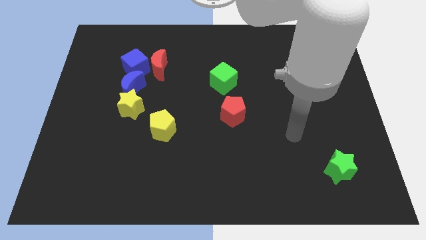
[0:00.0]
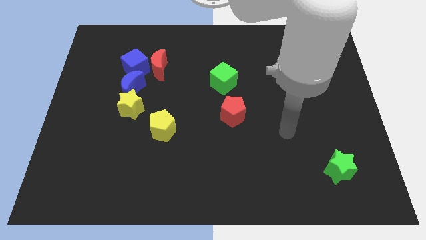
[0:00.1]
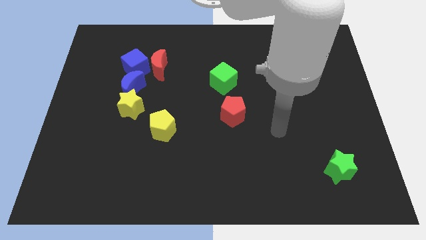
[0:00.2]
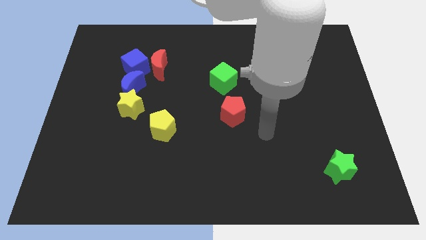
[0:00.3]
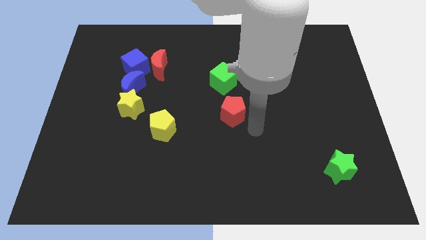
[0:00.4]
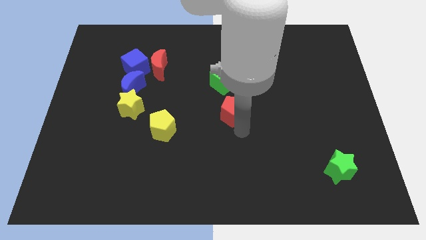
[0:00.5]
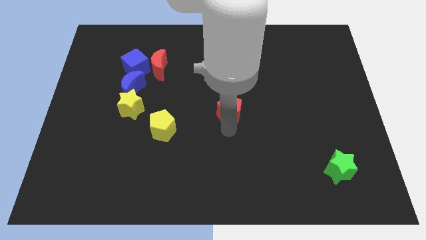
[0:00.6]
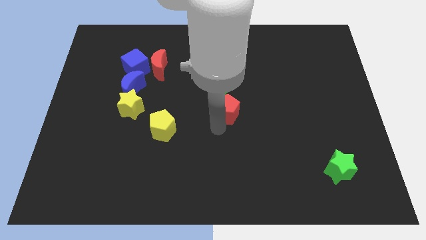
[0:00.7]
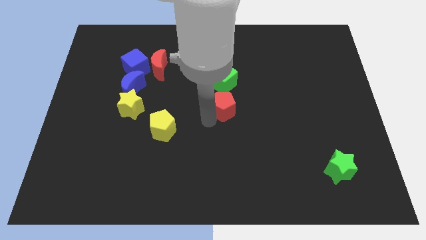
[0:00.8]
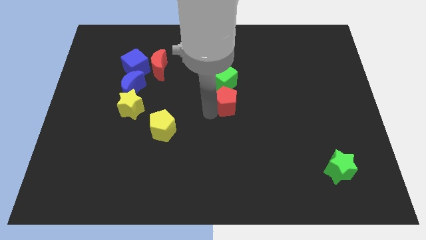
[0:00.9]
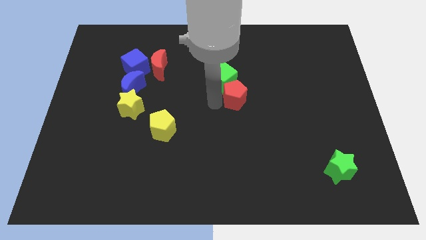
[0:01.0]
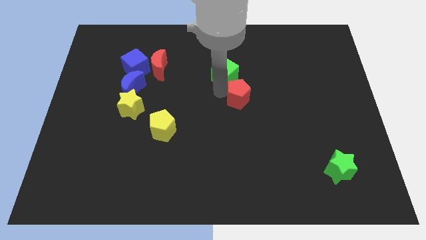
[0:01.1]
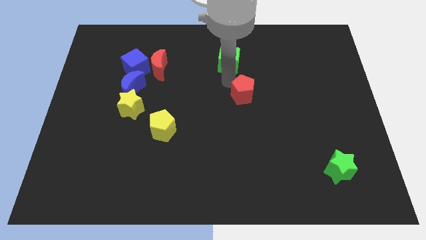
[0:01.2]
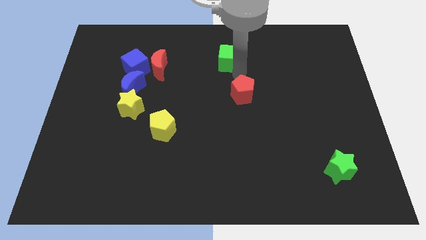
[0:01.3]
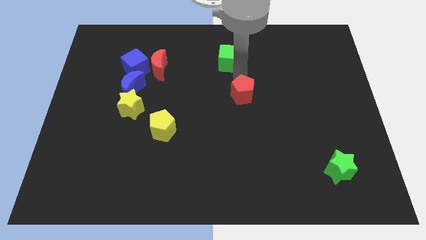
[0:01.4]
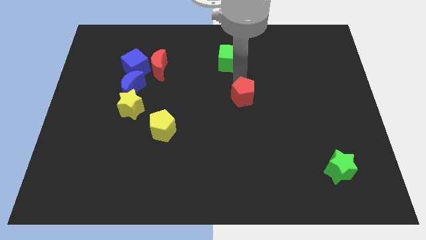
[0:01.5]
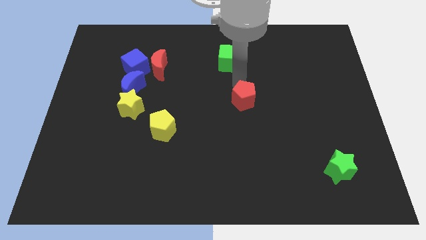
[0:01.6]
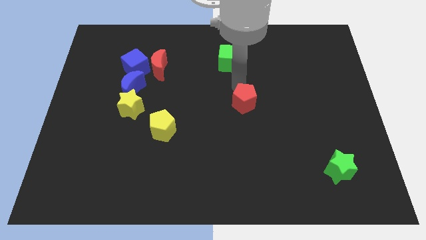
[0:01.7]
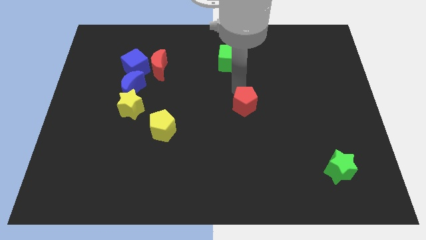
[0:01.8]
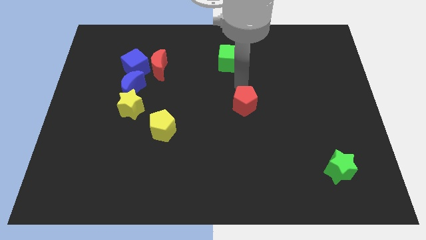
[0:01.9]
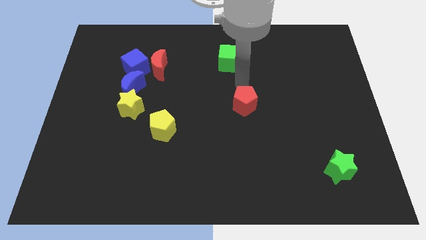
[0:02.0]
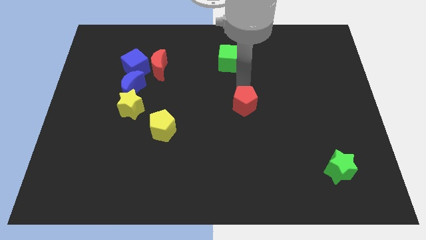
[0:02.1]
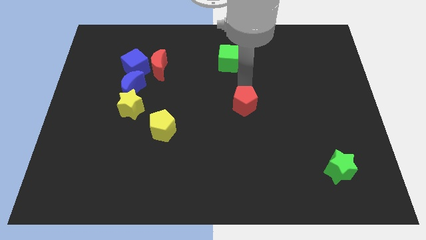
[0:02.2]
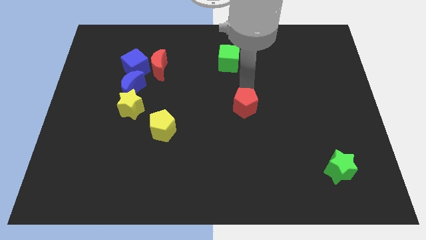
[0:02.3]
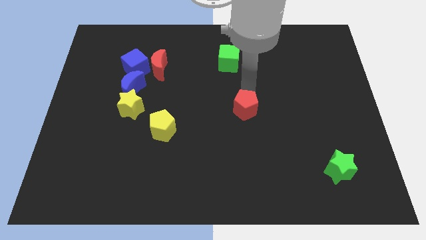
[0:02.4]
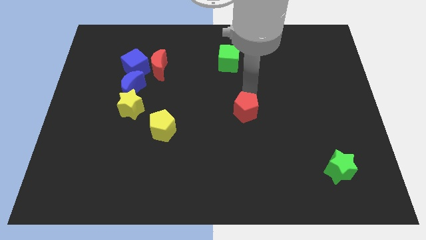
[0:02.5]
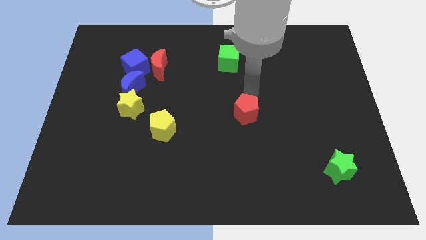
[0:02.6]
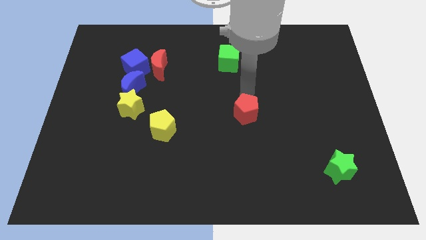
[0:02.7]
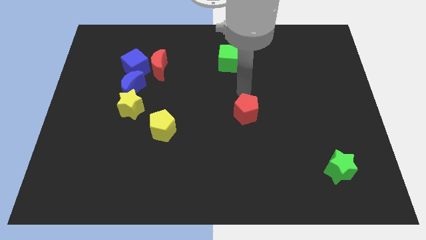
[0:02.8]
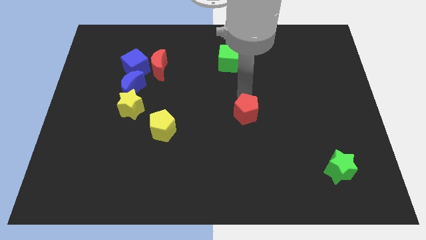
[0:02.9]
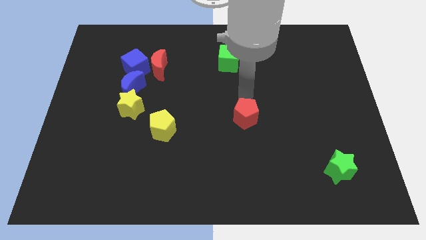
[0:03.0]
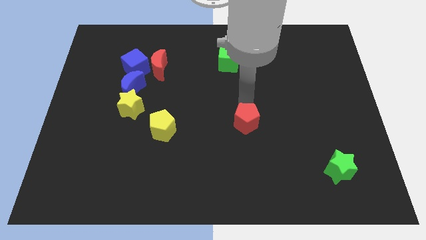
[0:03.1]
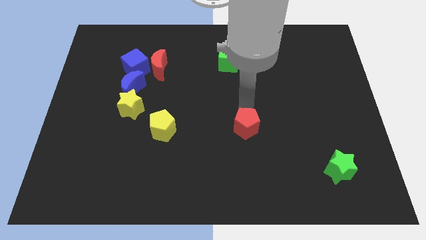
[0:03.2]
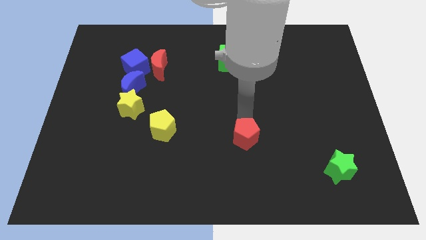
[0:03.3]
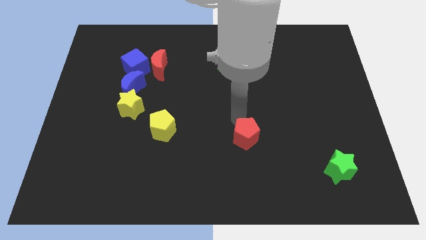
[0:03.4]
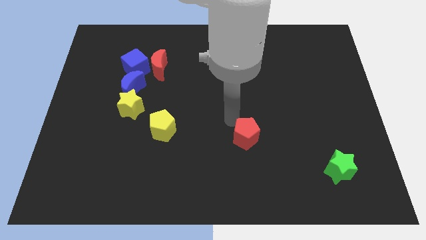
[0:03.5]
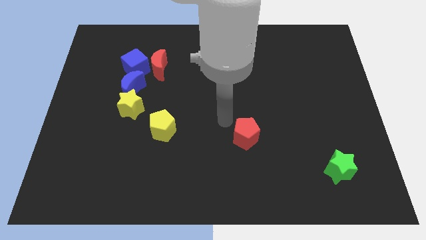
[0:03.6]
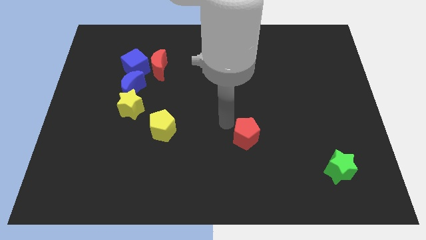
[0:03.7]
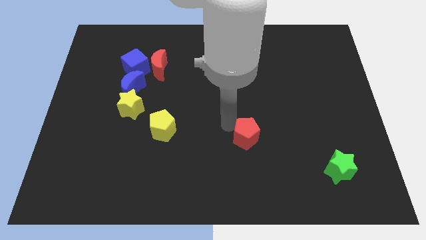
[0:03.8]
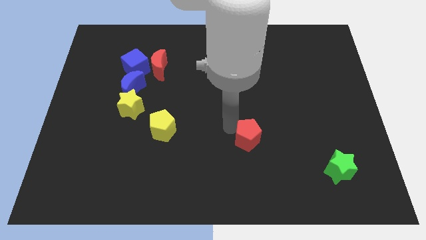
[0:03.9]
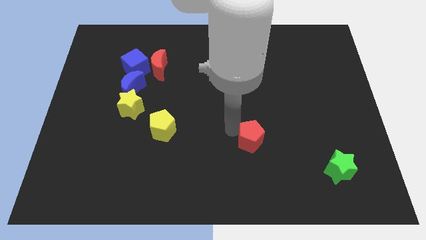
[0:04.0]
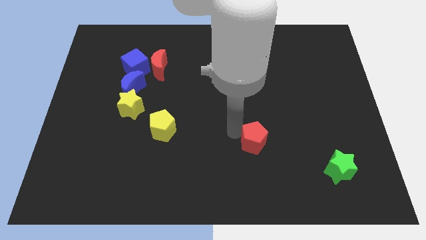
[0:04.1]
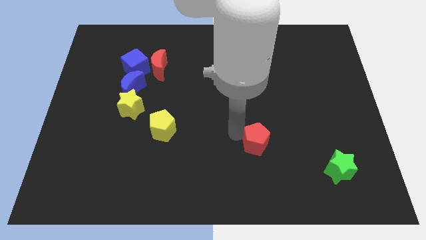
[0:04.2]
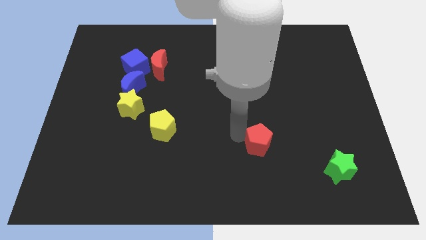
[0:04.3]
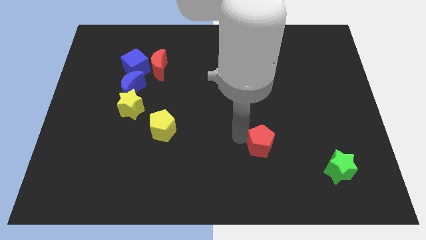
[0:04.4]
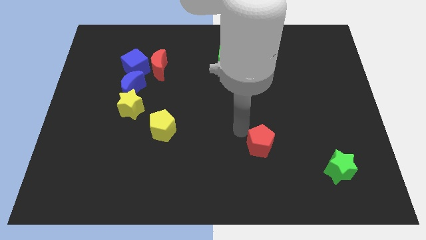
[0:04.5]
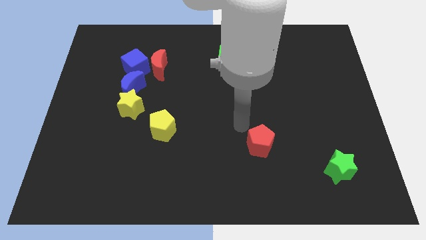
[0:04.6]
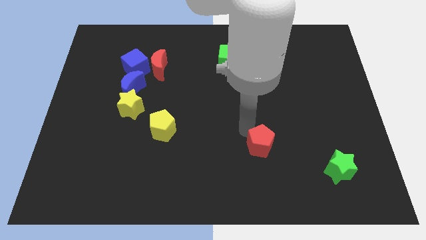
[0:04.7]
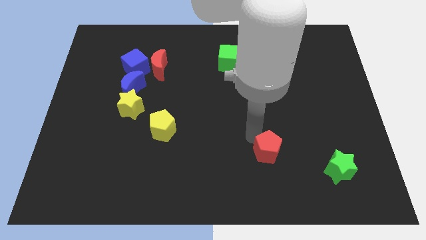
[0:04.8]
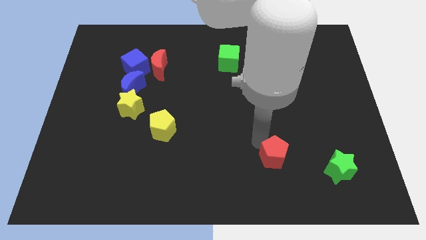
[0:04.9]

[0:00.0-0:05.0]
move the red pentagon left of the green star

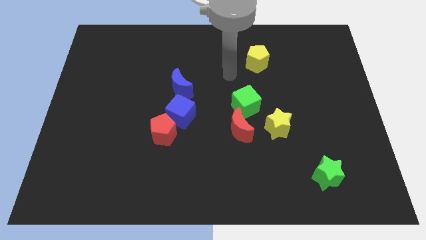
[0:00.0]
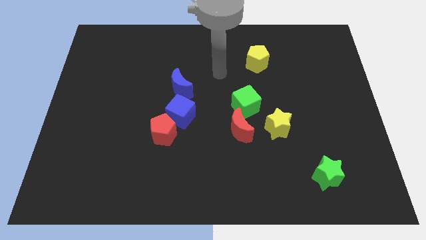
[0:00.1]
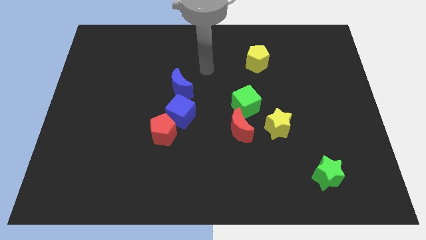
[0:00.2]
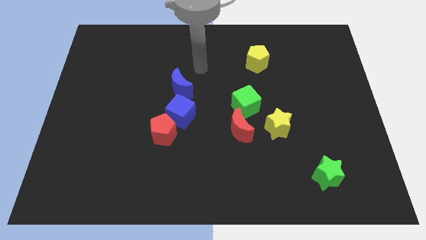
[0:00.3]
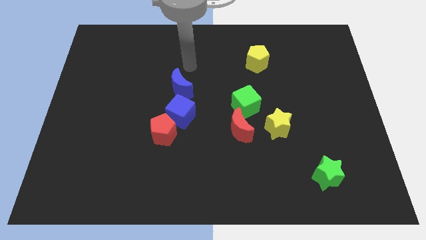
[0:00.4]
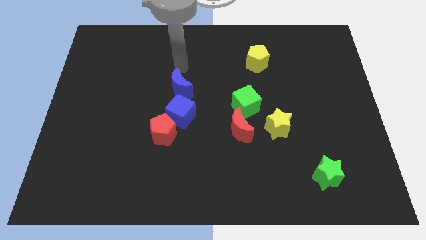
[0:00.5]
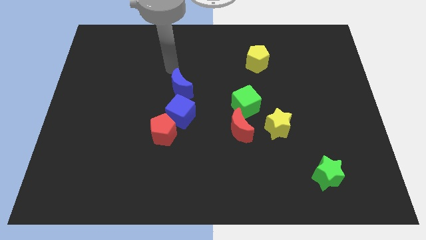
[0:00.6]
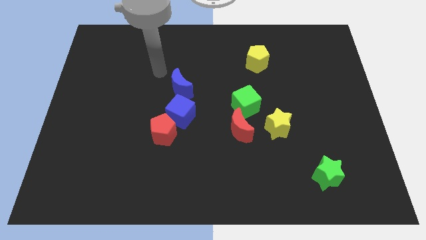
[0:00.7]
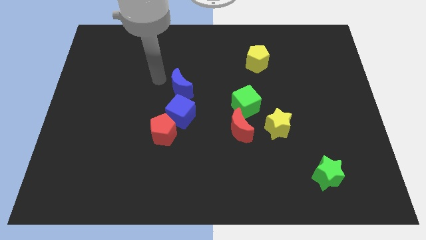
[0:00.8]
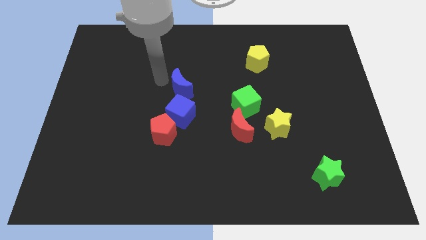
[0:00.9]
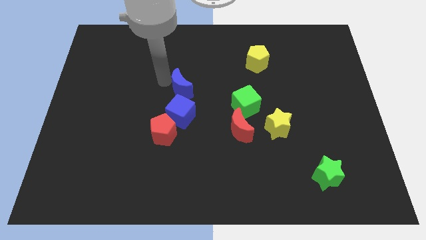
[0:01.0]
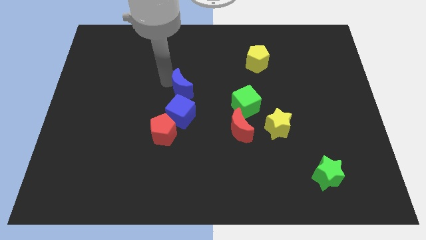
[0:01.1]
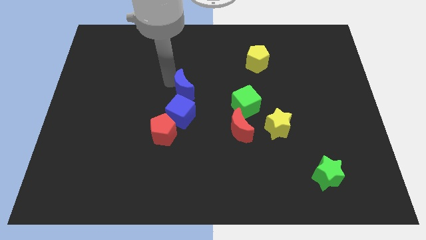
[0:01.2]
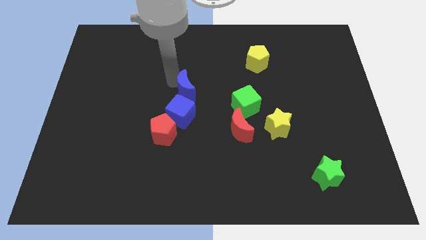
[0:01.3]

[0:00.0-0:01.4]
push the blue moon diagonally up and to the right of the blue cube
